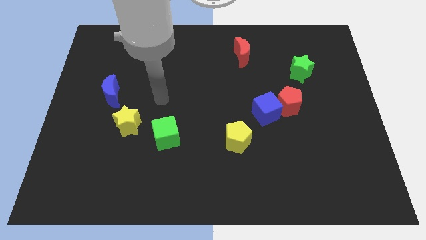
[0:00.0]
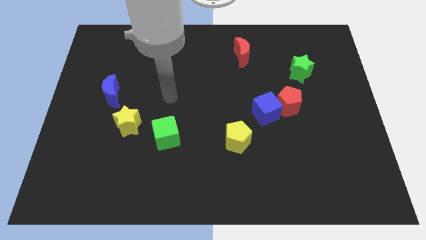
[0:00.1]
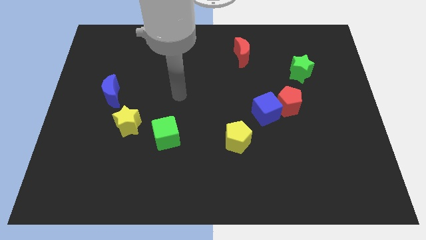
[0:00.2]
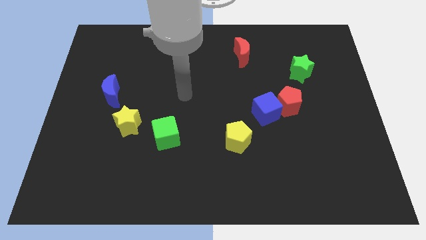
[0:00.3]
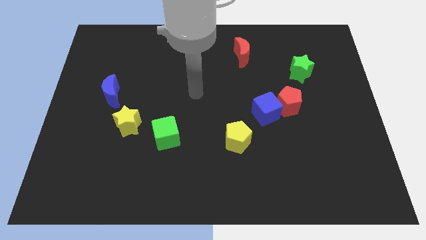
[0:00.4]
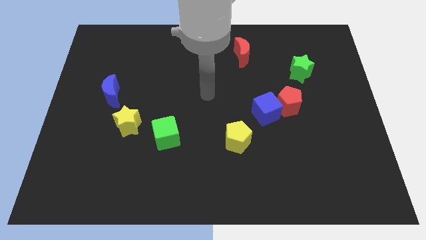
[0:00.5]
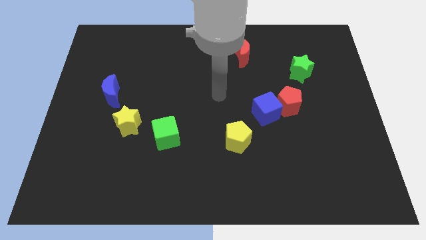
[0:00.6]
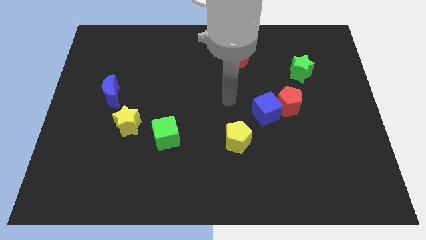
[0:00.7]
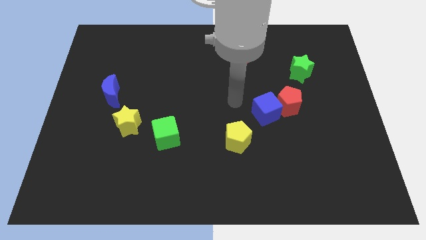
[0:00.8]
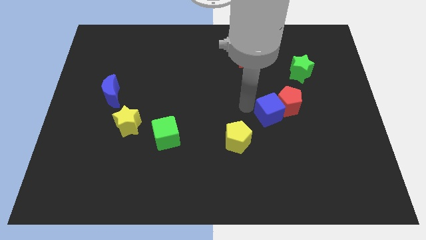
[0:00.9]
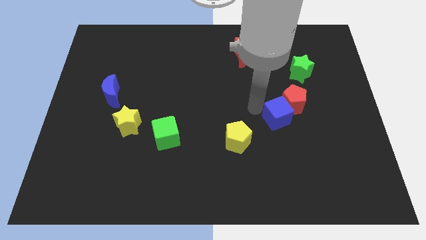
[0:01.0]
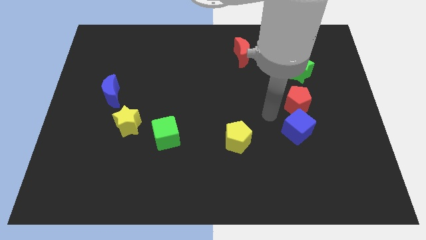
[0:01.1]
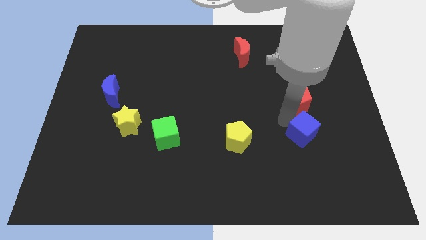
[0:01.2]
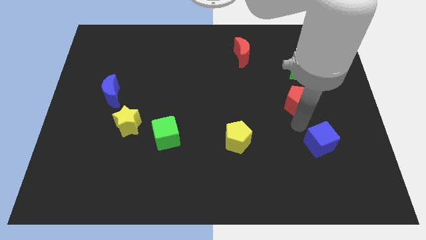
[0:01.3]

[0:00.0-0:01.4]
move the red pentagon away from the blue cube

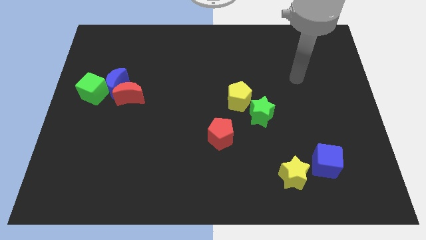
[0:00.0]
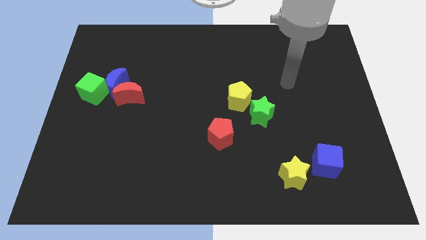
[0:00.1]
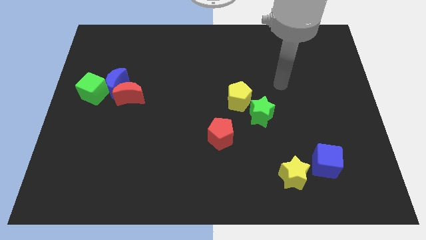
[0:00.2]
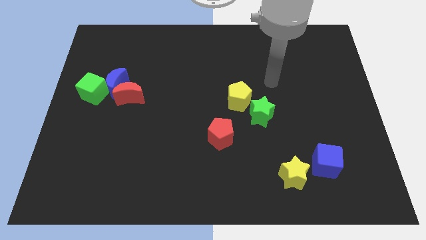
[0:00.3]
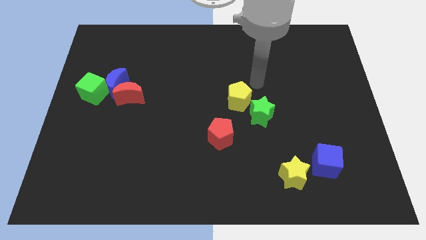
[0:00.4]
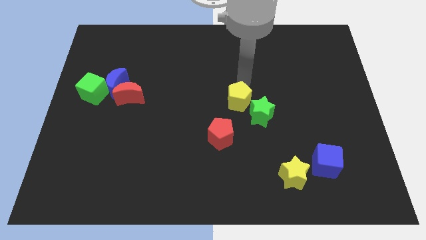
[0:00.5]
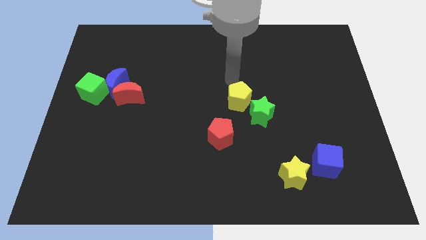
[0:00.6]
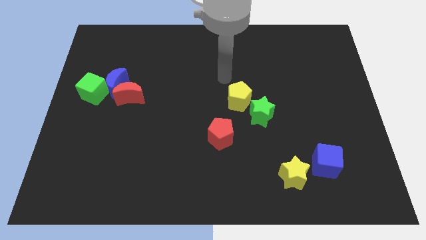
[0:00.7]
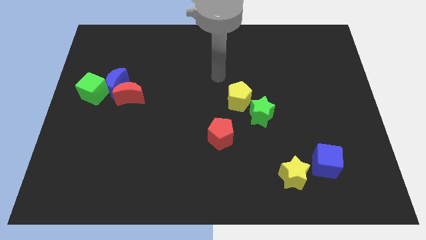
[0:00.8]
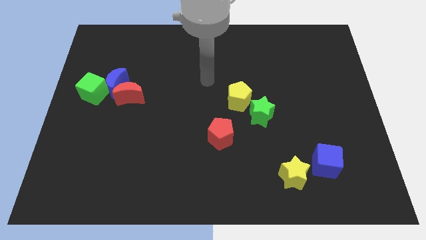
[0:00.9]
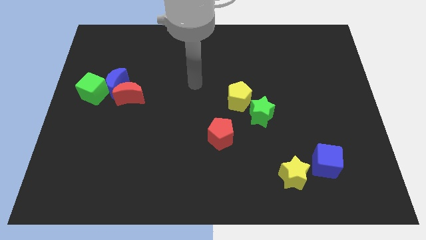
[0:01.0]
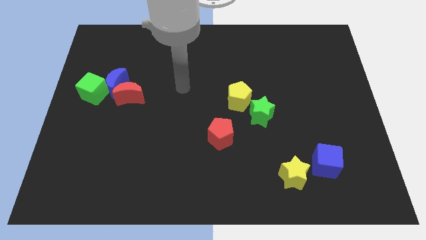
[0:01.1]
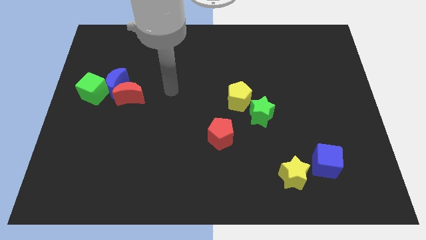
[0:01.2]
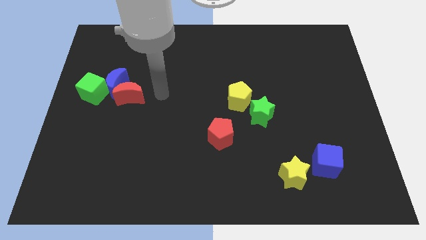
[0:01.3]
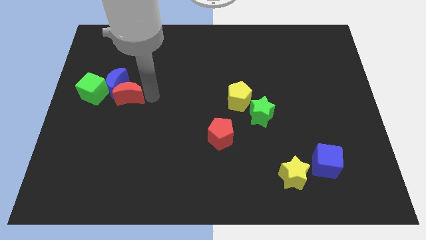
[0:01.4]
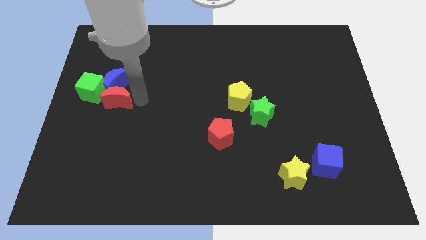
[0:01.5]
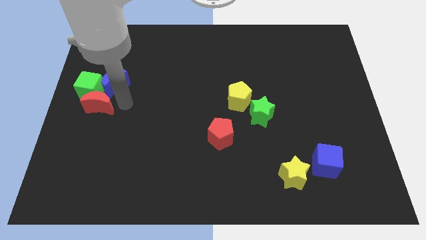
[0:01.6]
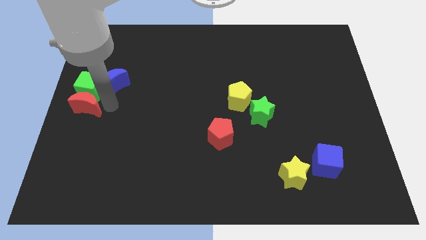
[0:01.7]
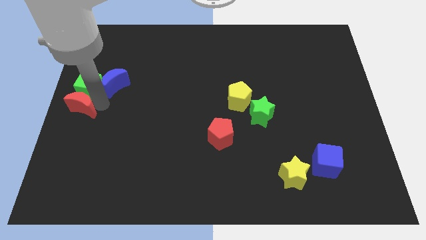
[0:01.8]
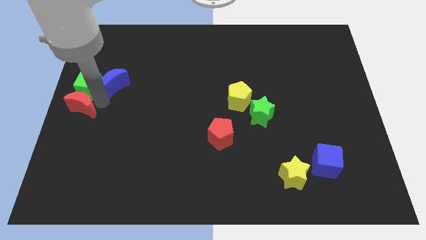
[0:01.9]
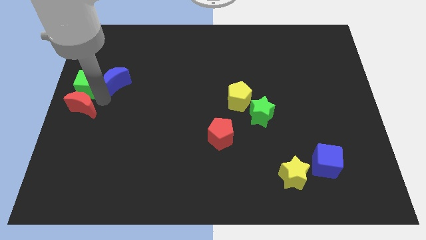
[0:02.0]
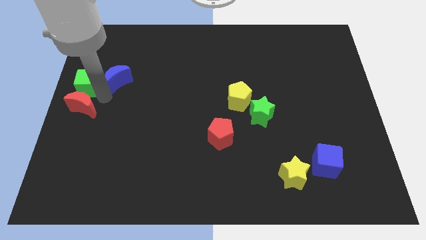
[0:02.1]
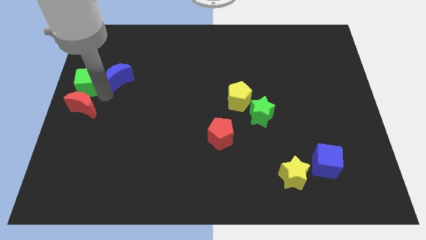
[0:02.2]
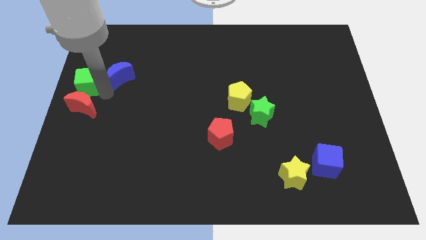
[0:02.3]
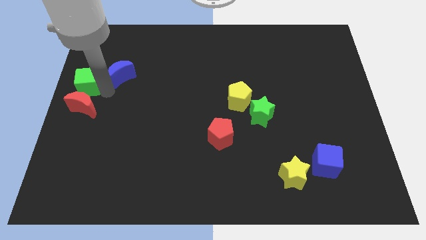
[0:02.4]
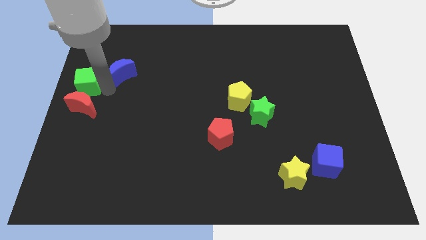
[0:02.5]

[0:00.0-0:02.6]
move the blue moon away from the red moon and green cube

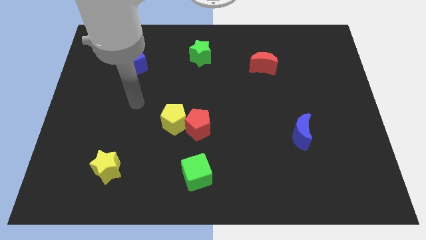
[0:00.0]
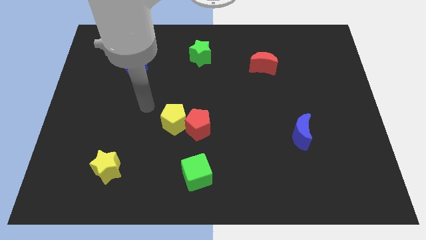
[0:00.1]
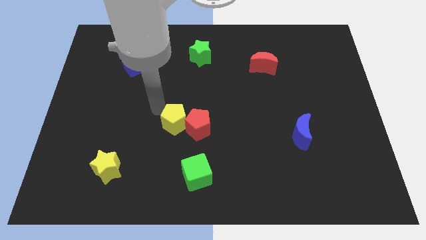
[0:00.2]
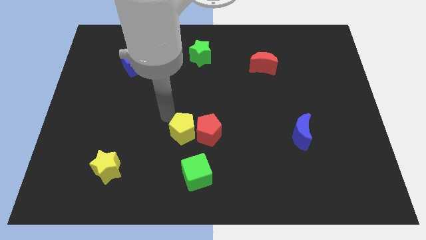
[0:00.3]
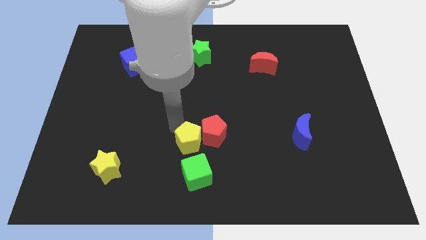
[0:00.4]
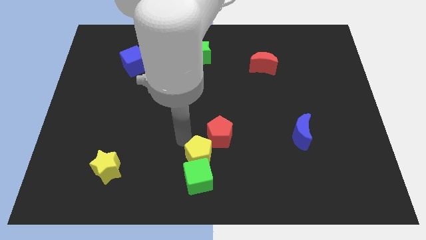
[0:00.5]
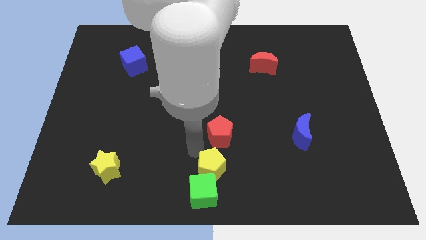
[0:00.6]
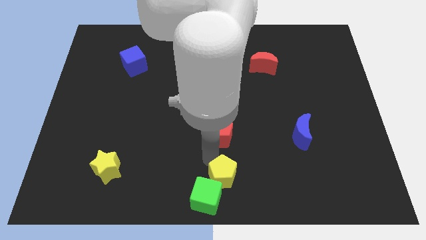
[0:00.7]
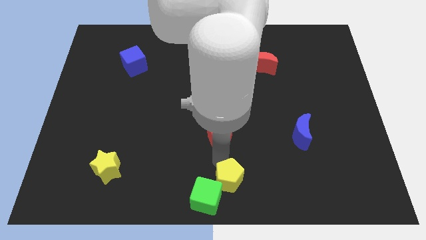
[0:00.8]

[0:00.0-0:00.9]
move the red pentagon away from the yellow pentagon

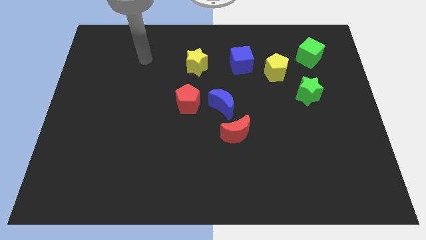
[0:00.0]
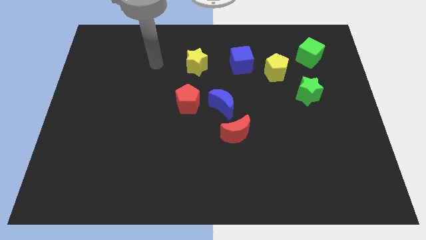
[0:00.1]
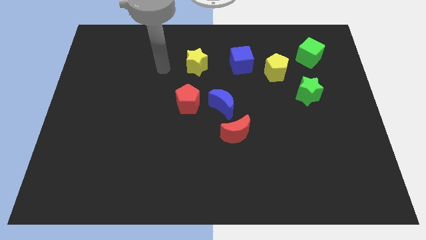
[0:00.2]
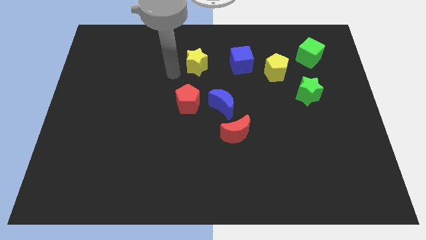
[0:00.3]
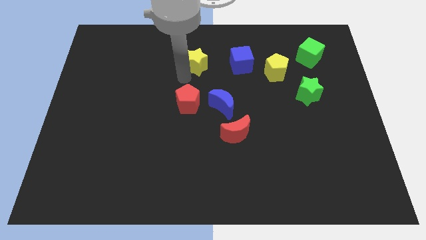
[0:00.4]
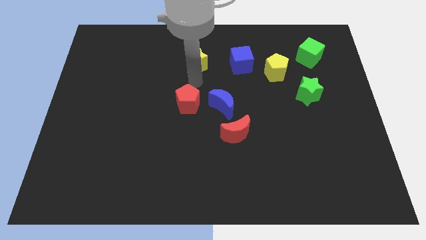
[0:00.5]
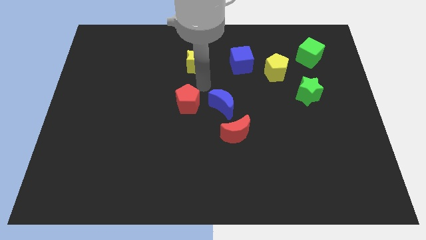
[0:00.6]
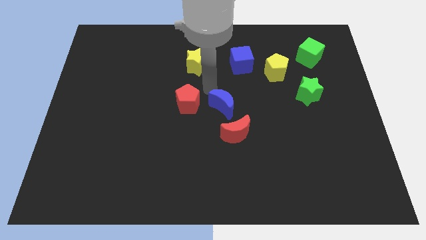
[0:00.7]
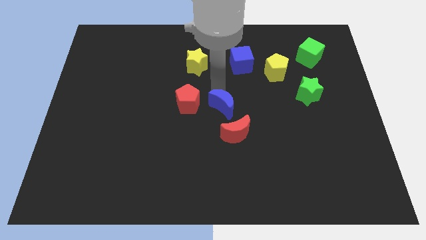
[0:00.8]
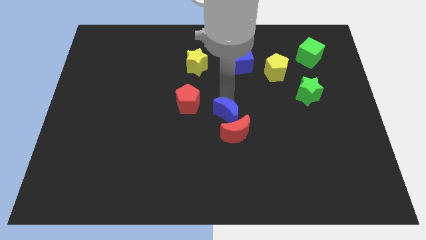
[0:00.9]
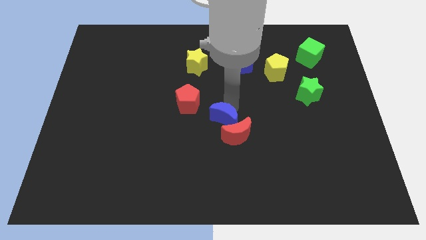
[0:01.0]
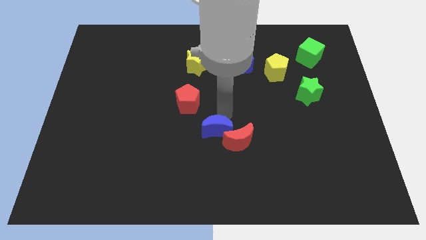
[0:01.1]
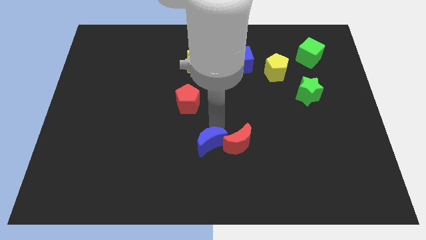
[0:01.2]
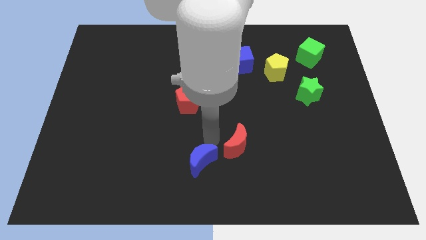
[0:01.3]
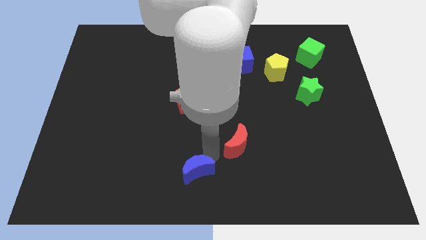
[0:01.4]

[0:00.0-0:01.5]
separate the red moon from the blue moon

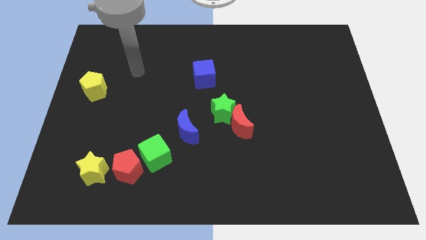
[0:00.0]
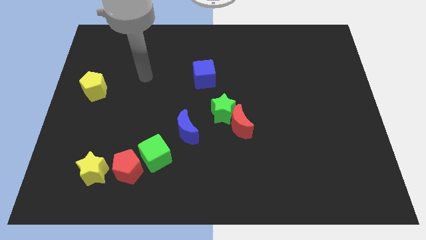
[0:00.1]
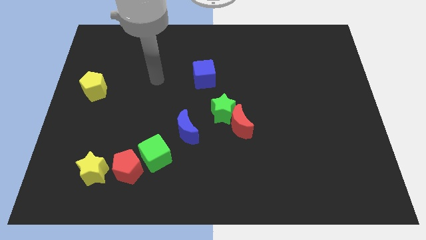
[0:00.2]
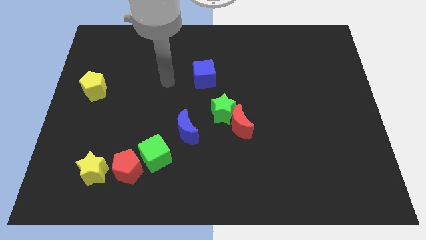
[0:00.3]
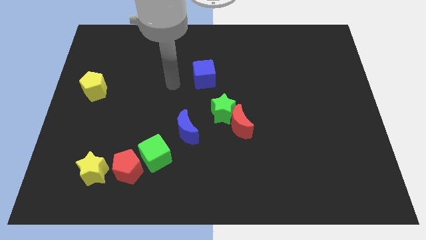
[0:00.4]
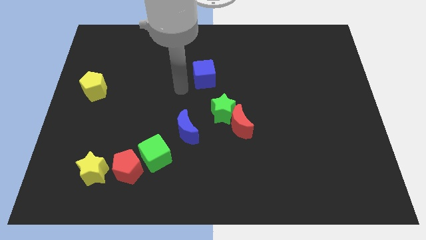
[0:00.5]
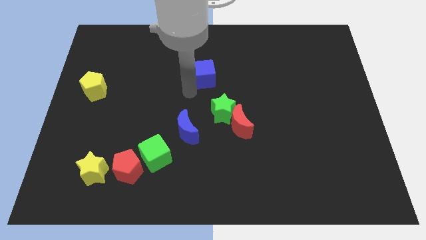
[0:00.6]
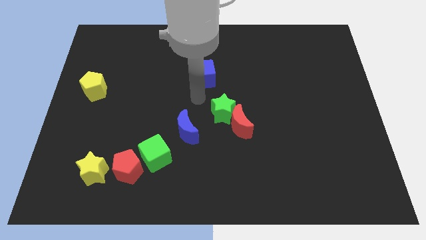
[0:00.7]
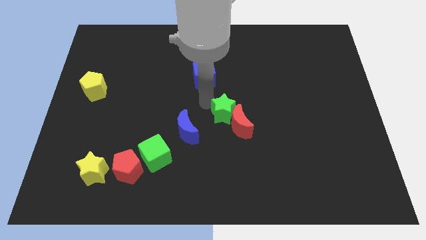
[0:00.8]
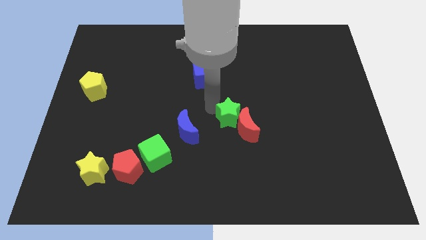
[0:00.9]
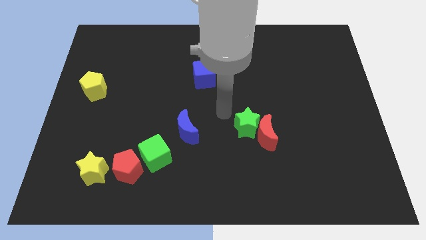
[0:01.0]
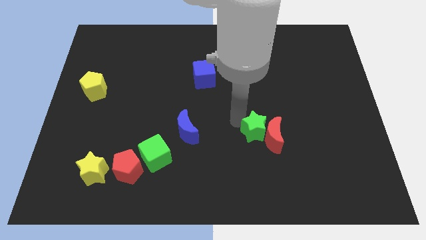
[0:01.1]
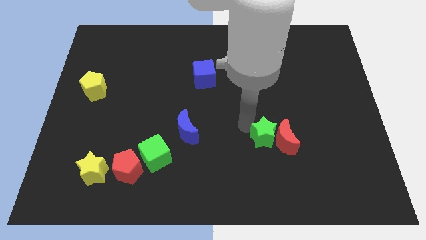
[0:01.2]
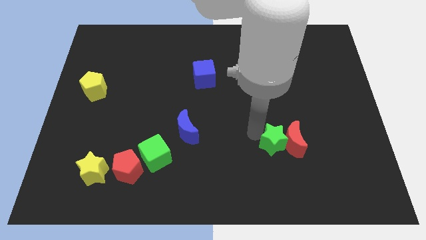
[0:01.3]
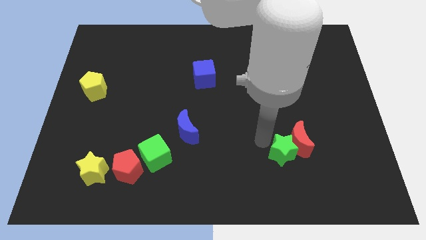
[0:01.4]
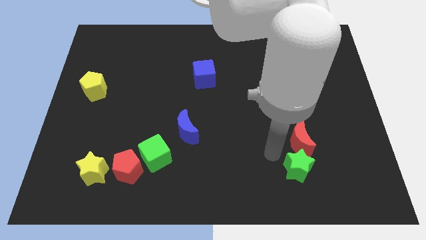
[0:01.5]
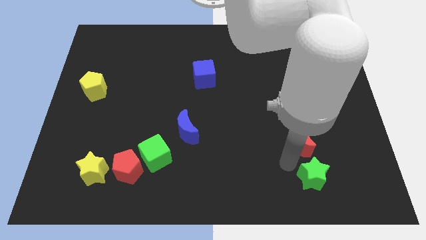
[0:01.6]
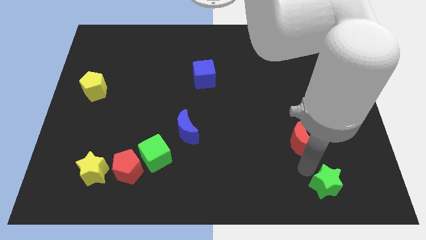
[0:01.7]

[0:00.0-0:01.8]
separate the red moon from the green star

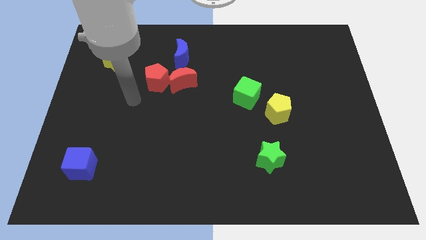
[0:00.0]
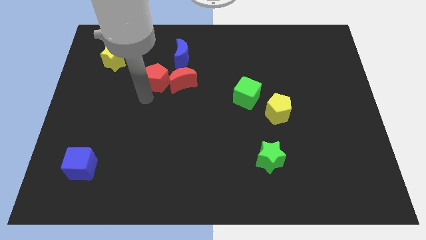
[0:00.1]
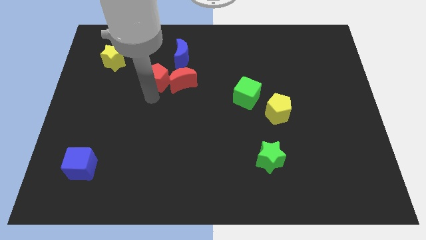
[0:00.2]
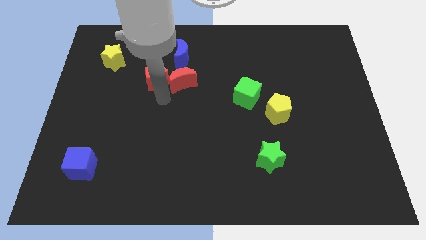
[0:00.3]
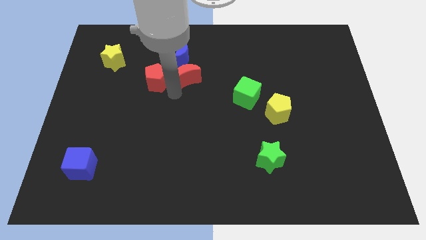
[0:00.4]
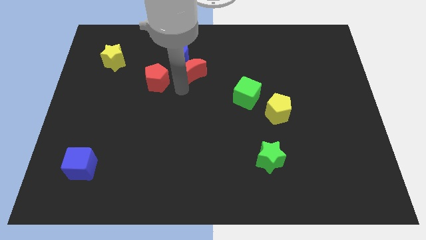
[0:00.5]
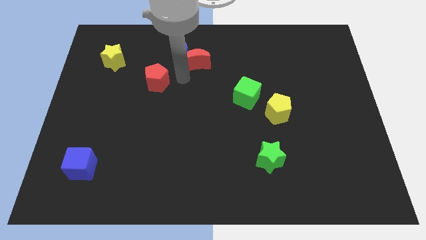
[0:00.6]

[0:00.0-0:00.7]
separate the red pentagon from the red moon

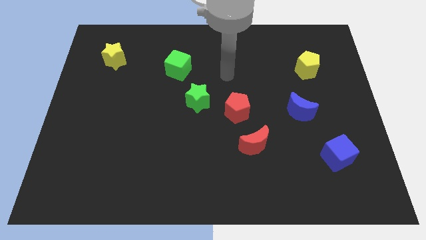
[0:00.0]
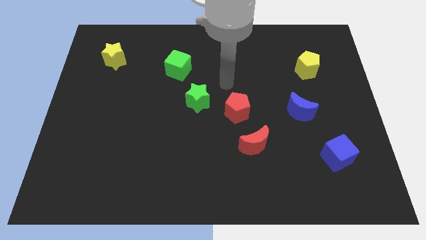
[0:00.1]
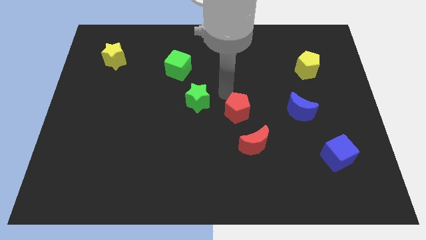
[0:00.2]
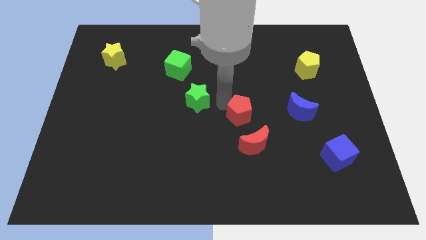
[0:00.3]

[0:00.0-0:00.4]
separate the green star from the red pentagon
